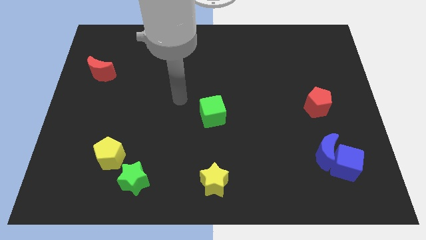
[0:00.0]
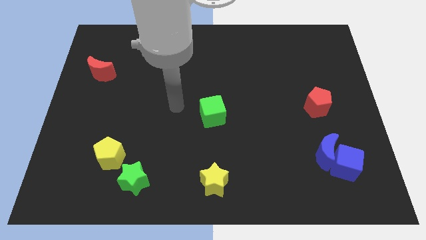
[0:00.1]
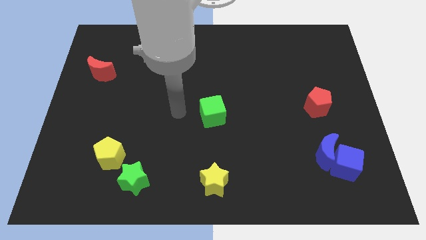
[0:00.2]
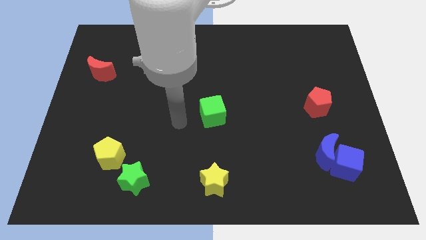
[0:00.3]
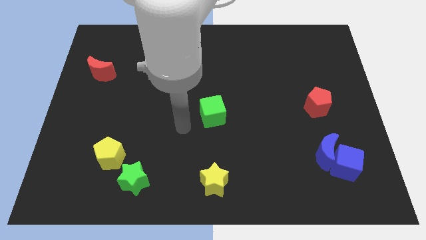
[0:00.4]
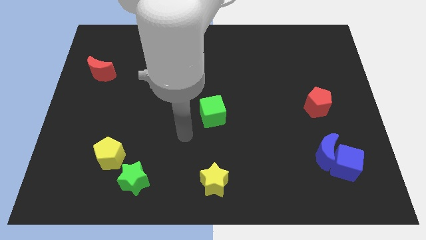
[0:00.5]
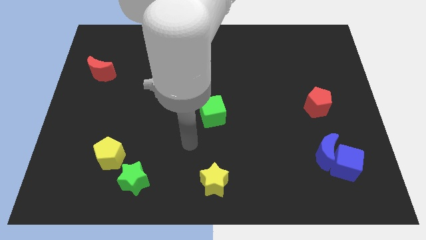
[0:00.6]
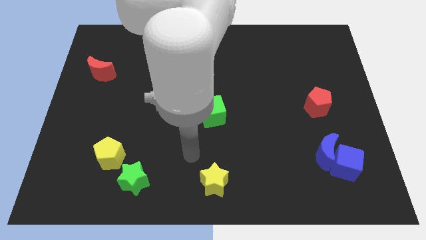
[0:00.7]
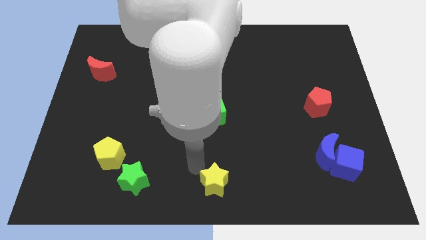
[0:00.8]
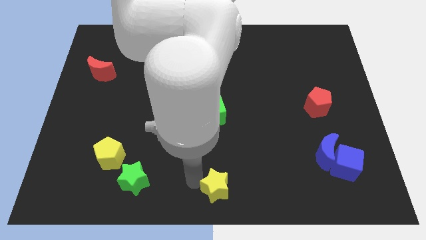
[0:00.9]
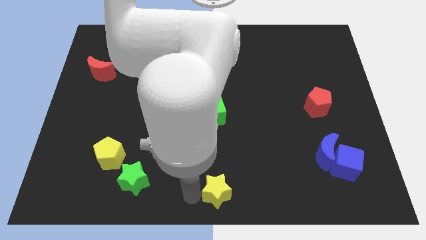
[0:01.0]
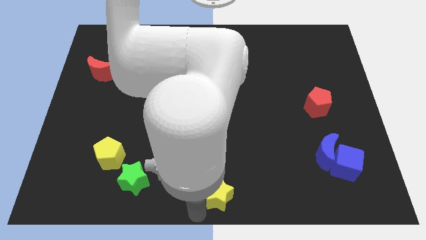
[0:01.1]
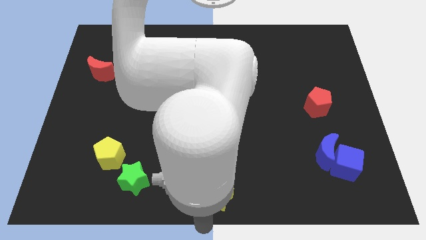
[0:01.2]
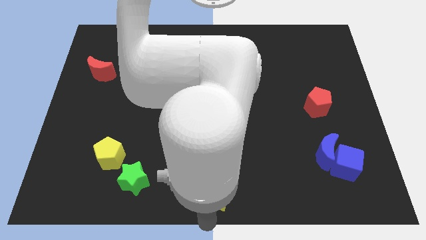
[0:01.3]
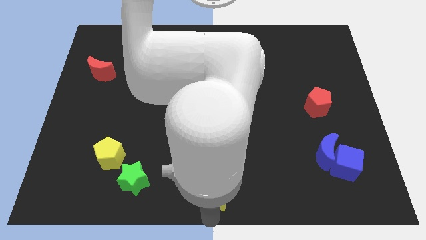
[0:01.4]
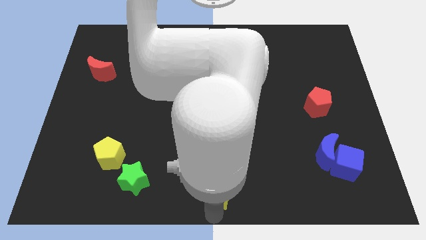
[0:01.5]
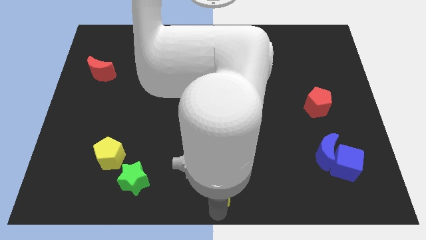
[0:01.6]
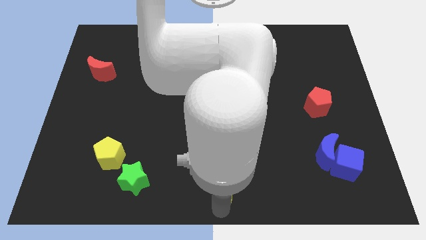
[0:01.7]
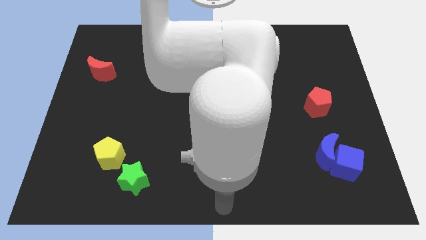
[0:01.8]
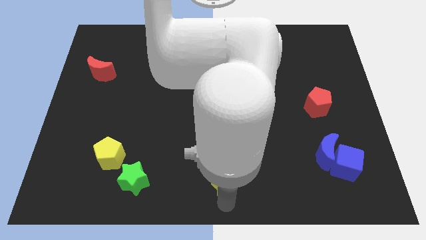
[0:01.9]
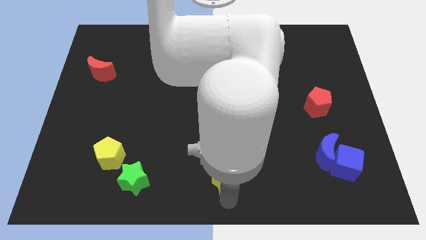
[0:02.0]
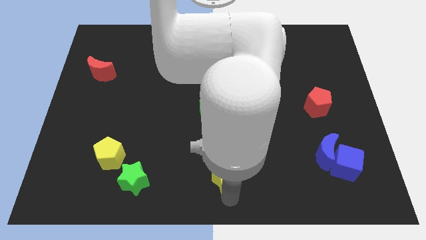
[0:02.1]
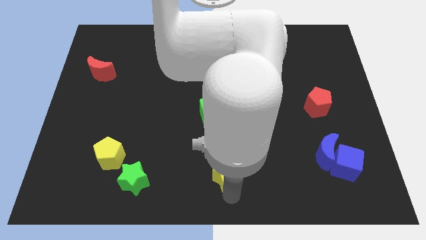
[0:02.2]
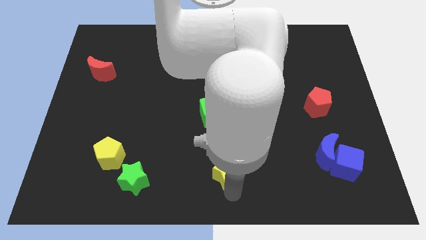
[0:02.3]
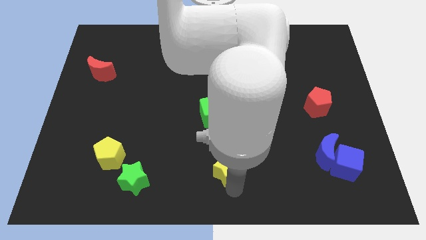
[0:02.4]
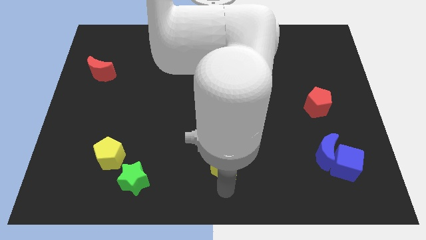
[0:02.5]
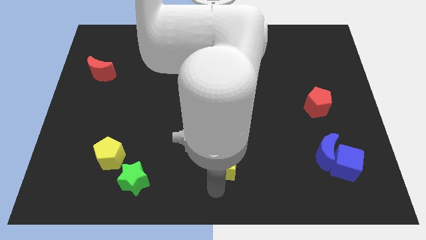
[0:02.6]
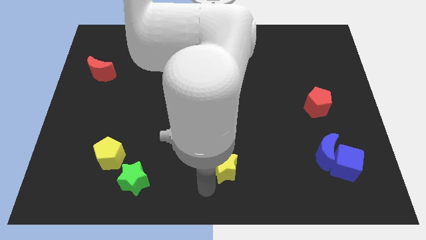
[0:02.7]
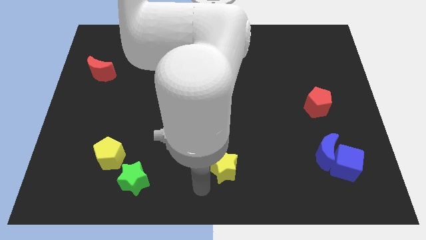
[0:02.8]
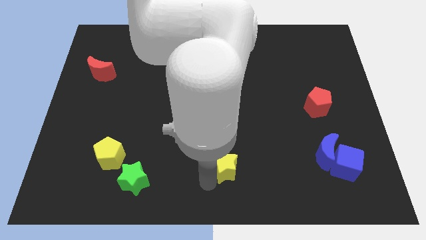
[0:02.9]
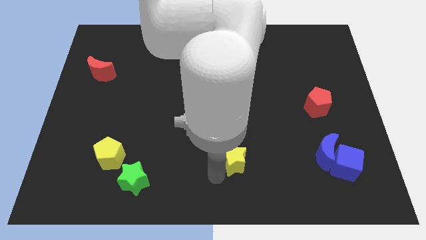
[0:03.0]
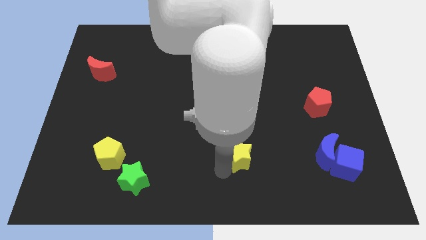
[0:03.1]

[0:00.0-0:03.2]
move the yellow star a little bit upwards and then right

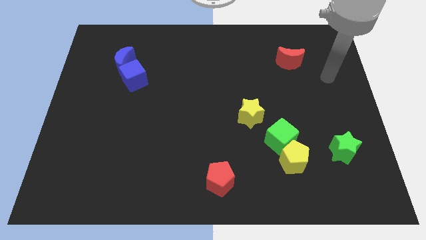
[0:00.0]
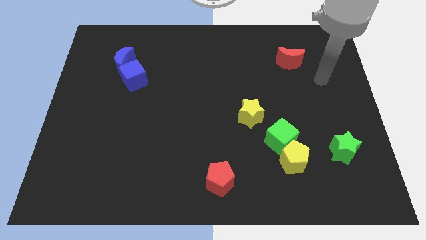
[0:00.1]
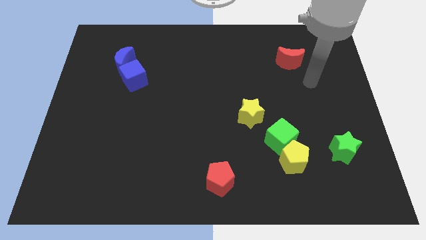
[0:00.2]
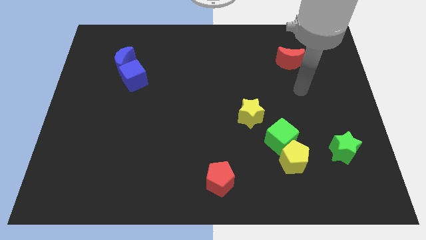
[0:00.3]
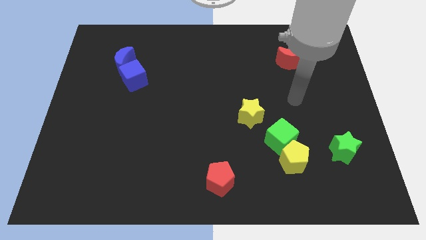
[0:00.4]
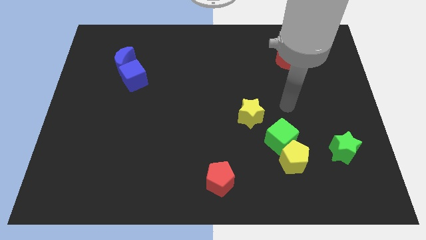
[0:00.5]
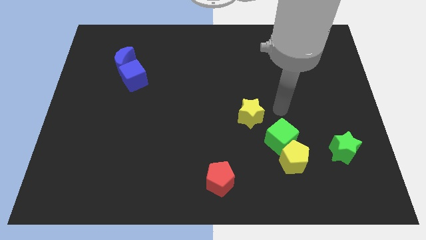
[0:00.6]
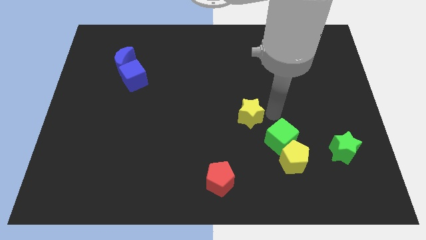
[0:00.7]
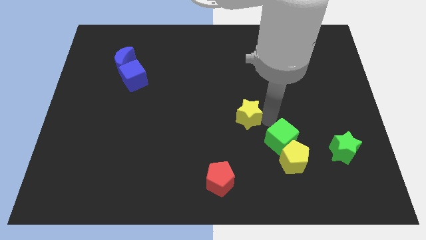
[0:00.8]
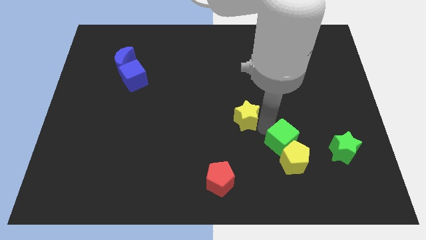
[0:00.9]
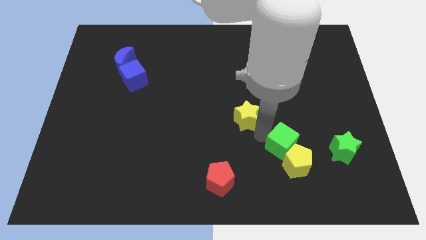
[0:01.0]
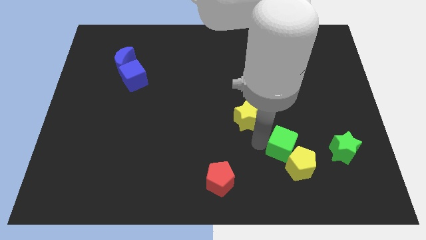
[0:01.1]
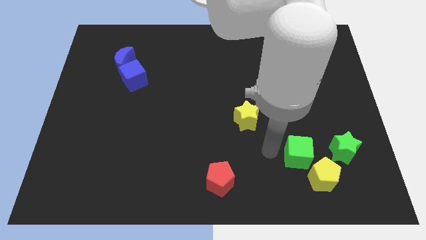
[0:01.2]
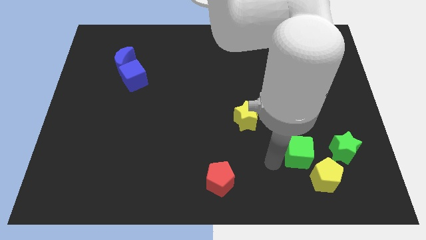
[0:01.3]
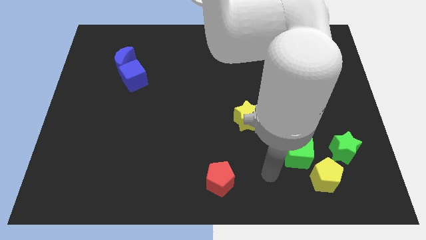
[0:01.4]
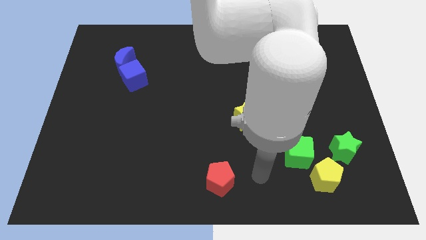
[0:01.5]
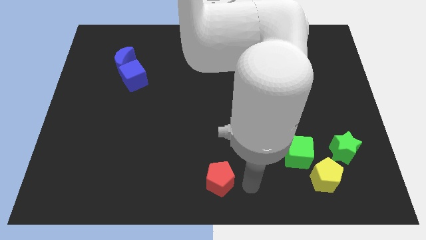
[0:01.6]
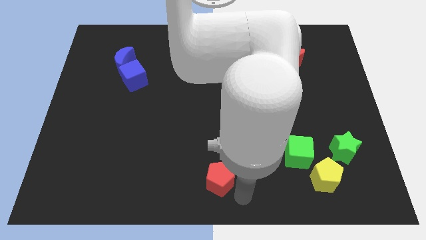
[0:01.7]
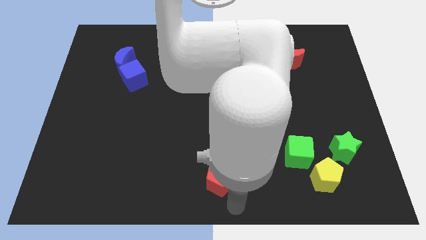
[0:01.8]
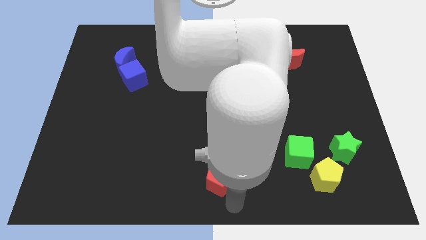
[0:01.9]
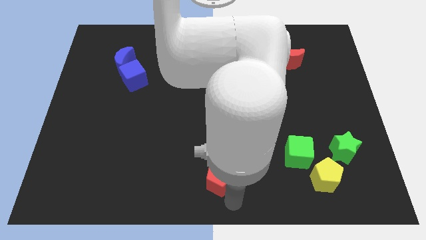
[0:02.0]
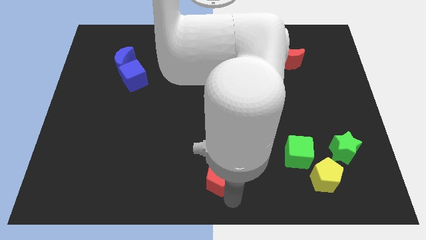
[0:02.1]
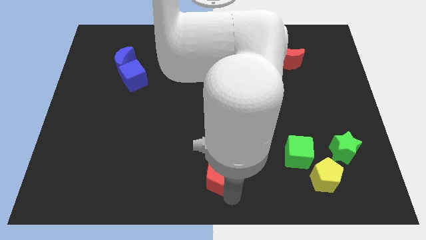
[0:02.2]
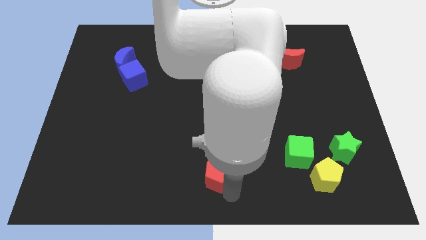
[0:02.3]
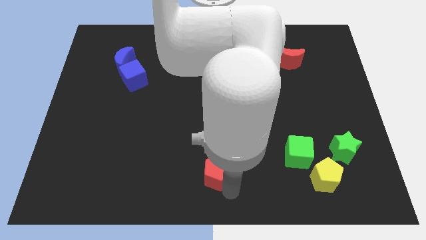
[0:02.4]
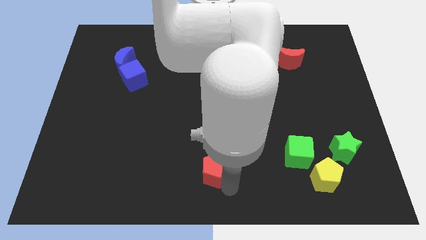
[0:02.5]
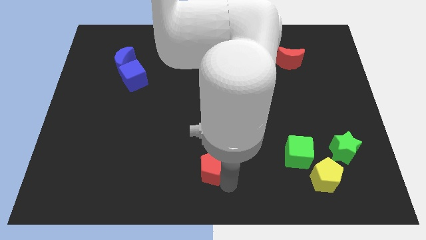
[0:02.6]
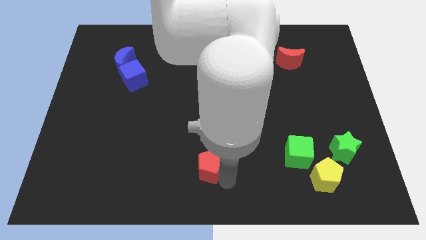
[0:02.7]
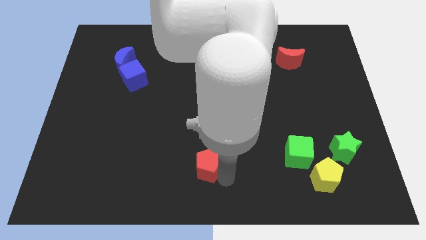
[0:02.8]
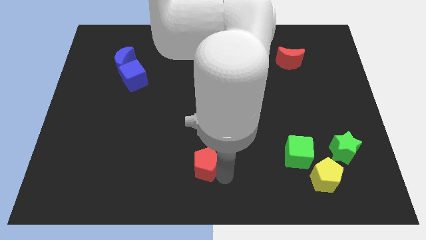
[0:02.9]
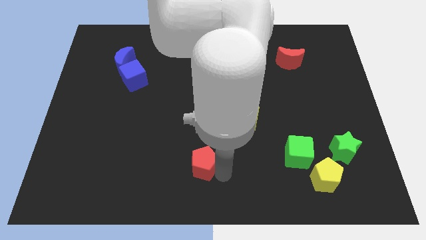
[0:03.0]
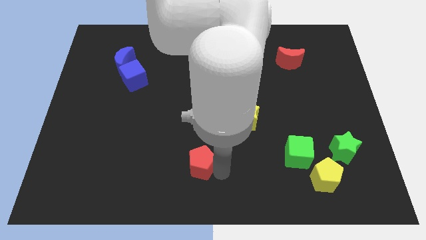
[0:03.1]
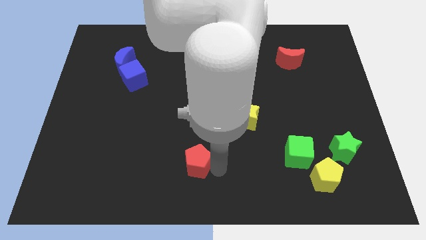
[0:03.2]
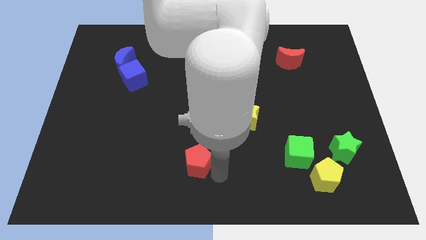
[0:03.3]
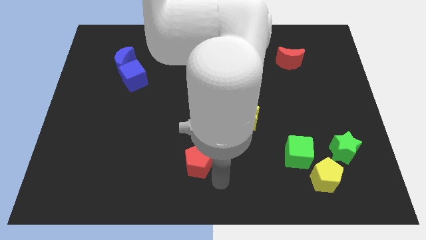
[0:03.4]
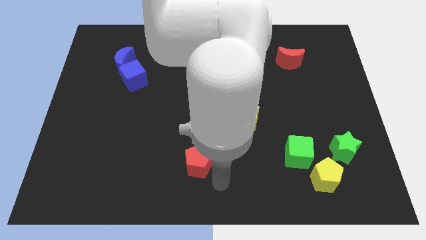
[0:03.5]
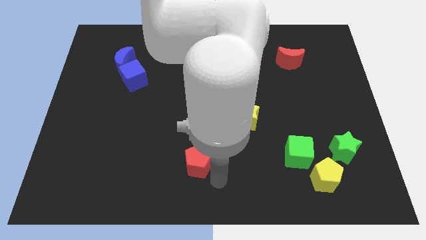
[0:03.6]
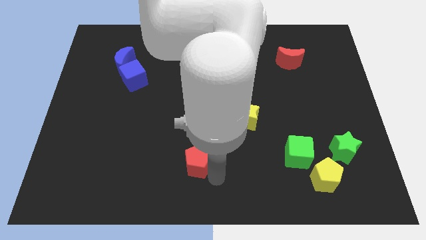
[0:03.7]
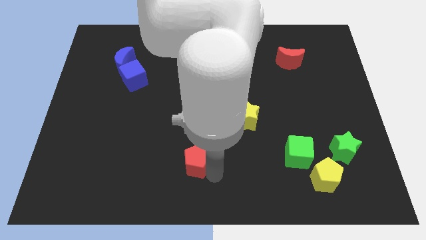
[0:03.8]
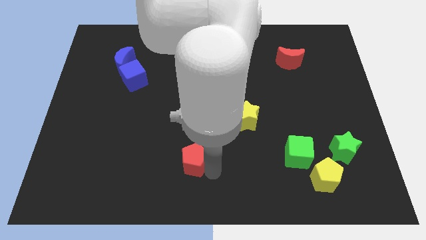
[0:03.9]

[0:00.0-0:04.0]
slide the red pentagon up and then to the left a little

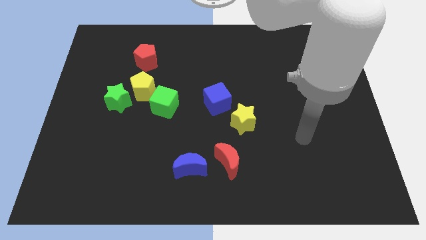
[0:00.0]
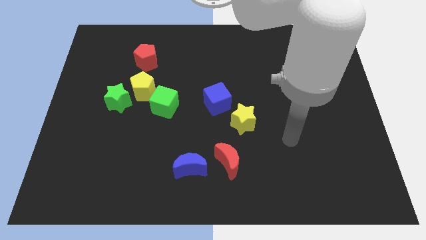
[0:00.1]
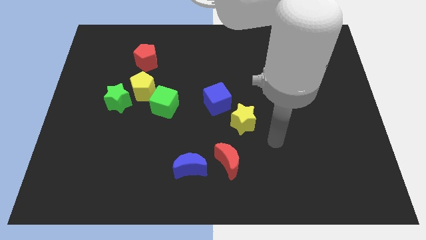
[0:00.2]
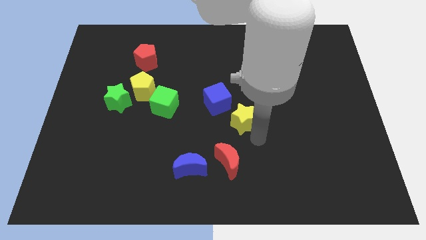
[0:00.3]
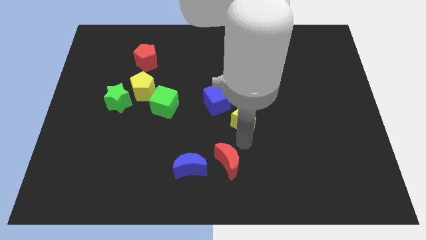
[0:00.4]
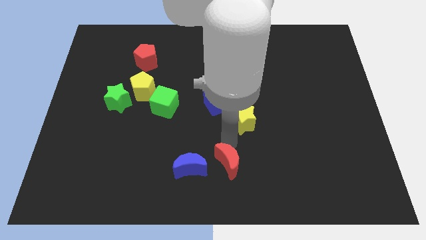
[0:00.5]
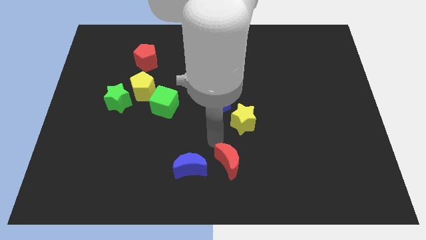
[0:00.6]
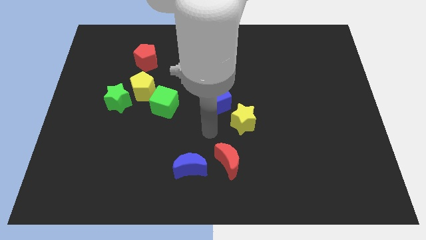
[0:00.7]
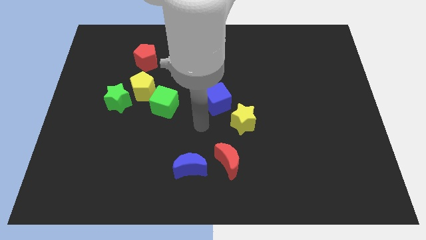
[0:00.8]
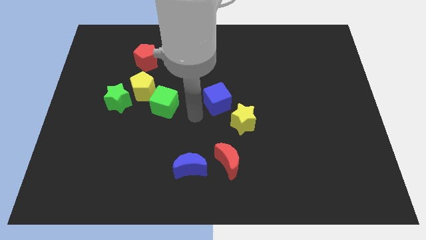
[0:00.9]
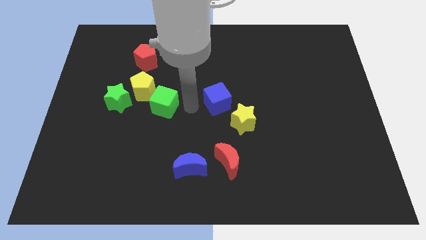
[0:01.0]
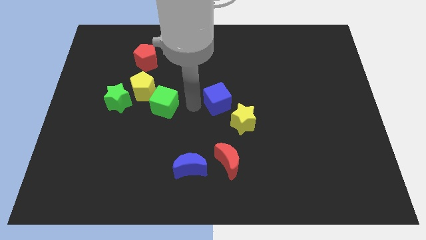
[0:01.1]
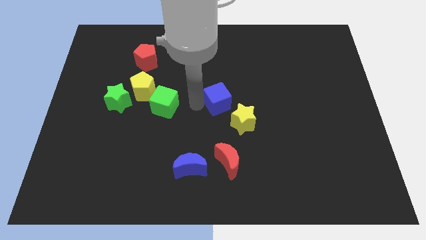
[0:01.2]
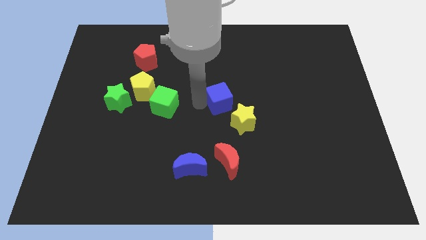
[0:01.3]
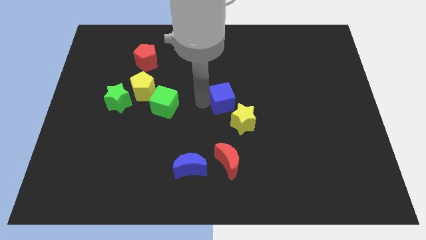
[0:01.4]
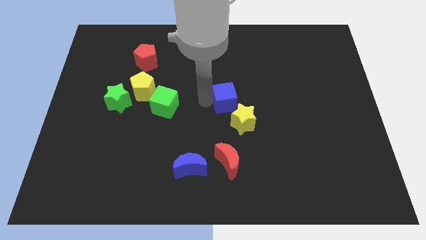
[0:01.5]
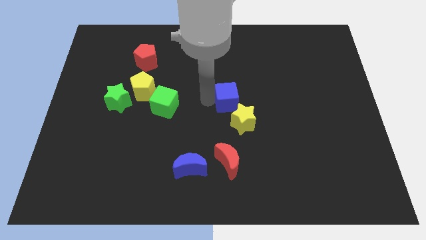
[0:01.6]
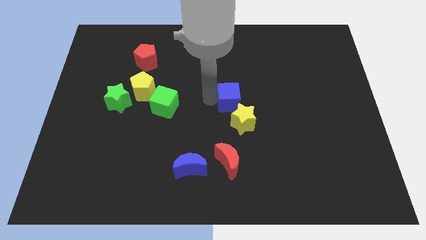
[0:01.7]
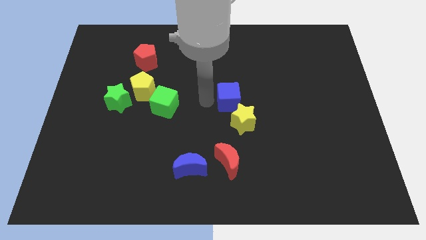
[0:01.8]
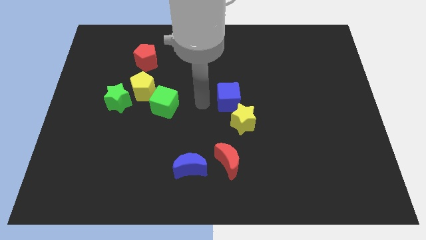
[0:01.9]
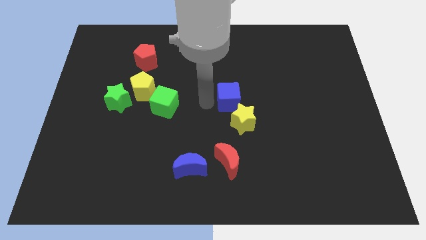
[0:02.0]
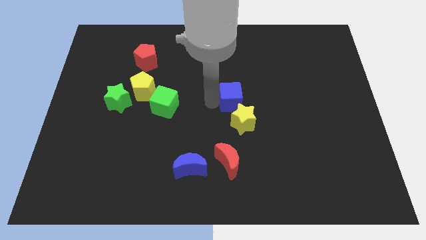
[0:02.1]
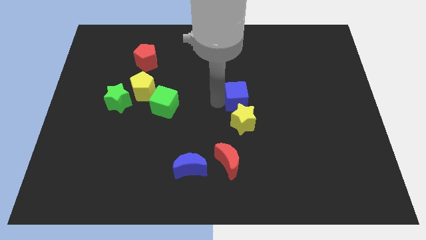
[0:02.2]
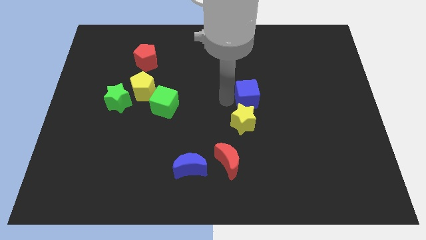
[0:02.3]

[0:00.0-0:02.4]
slide the blue cube a little to the right
